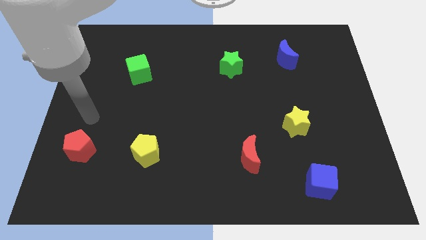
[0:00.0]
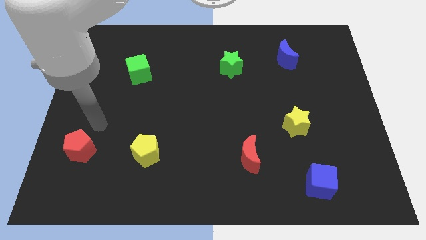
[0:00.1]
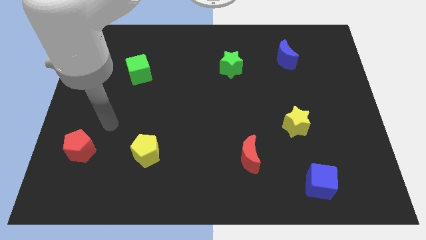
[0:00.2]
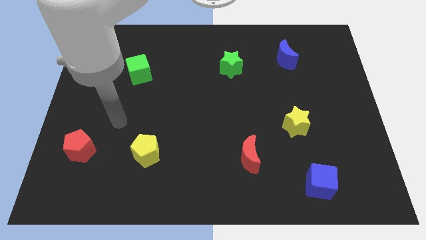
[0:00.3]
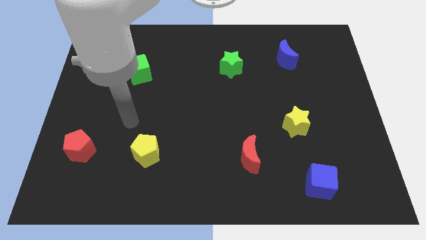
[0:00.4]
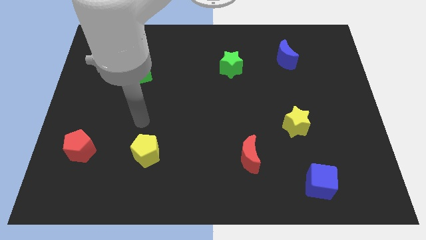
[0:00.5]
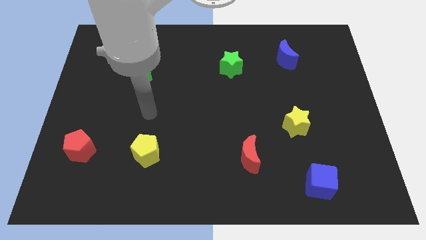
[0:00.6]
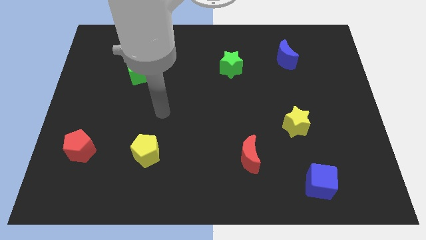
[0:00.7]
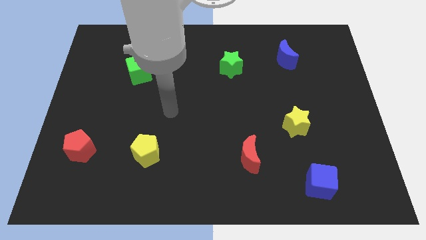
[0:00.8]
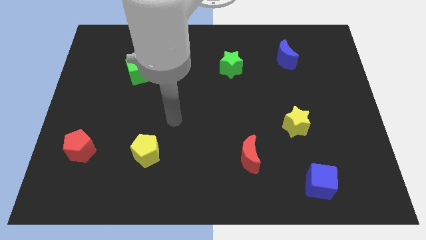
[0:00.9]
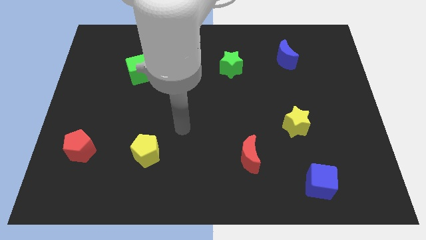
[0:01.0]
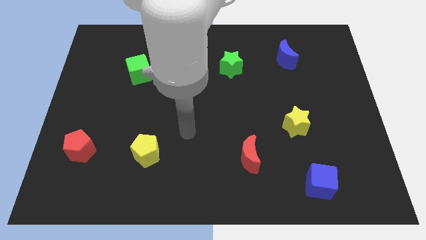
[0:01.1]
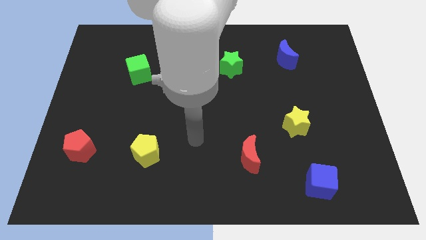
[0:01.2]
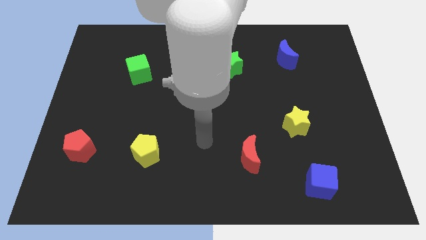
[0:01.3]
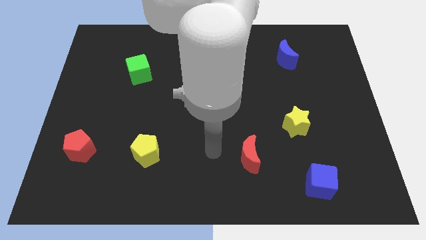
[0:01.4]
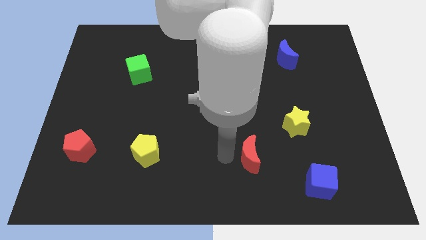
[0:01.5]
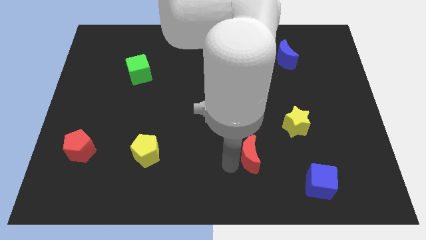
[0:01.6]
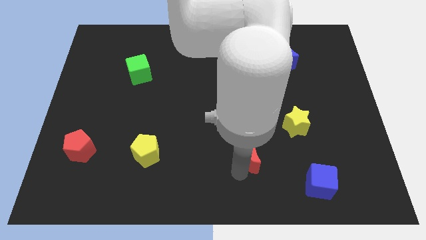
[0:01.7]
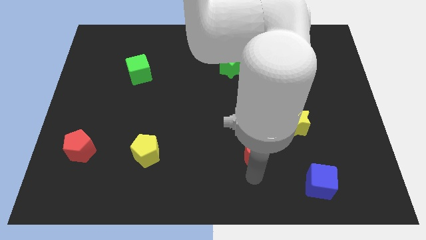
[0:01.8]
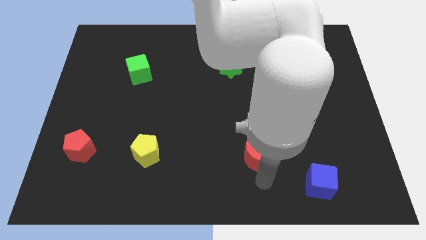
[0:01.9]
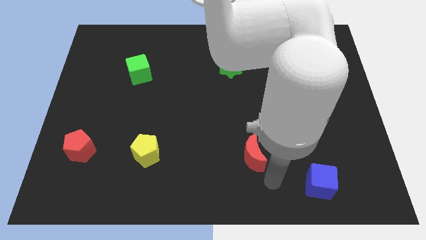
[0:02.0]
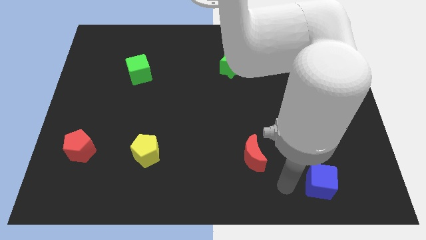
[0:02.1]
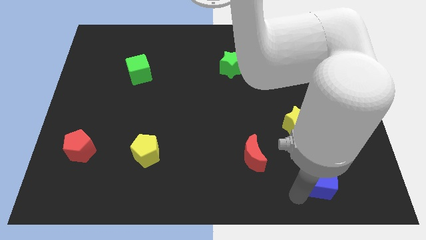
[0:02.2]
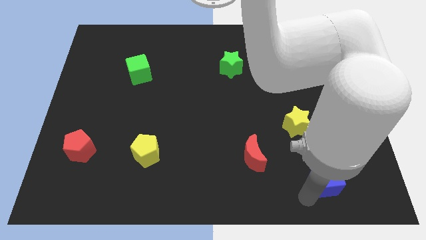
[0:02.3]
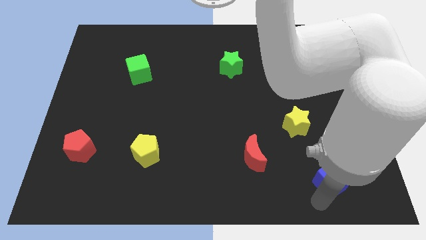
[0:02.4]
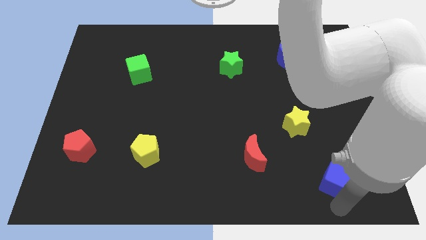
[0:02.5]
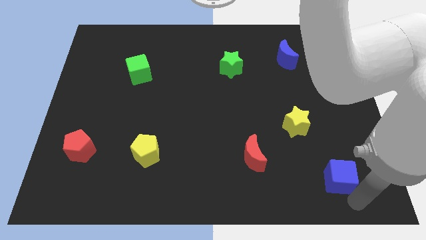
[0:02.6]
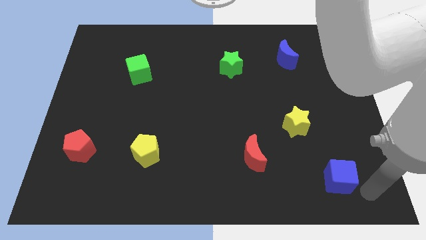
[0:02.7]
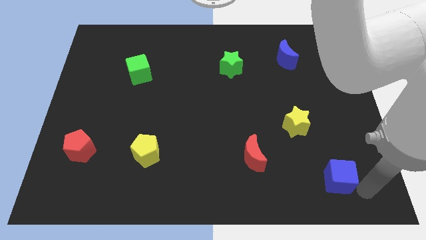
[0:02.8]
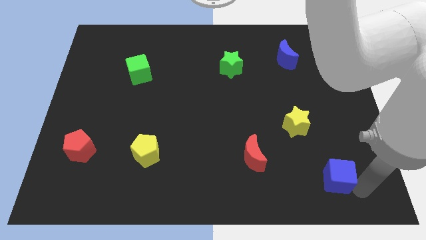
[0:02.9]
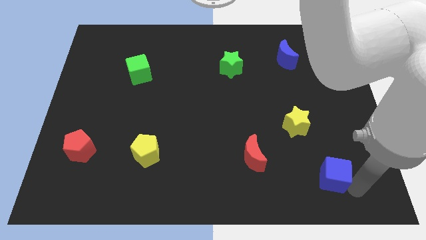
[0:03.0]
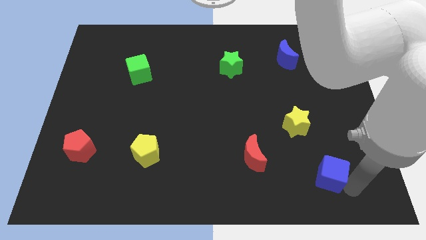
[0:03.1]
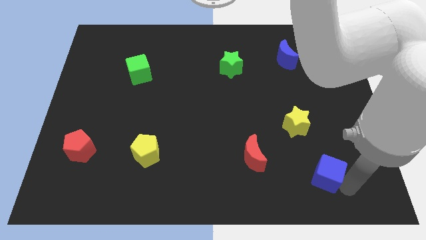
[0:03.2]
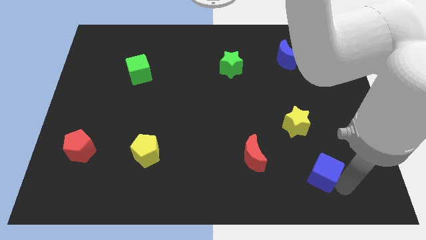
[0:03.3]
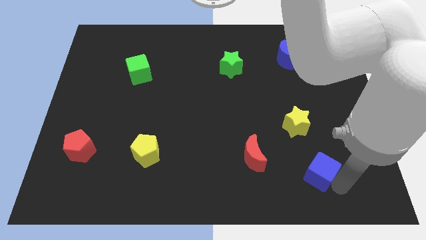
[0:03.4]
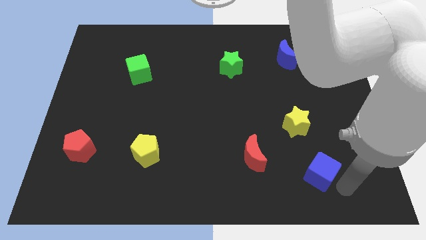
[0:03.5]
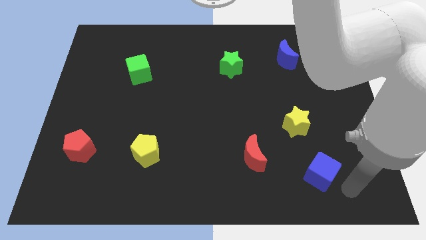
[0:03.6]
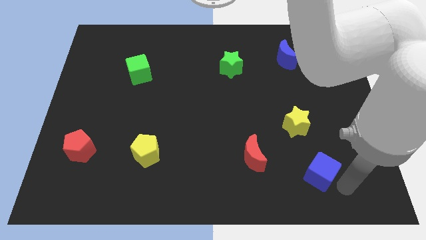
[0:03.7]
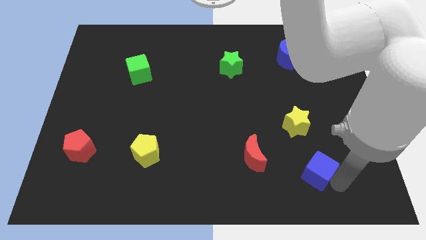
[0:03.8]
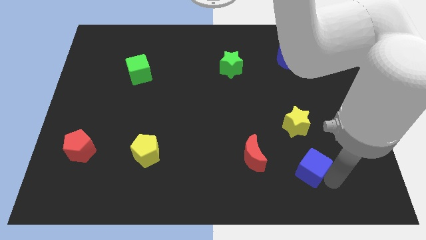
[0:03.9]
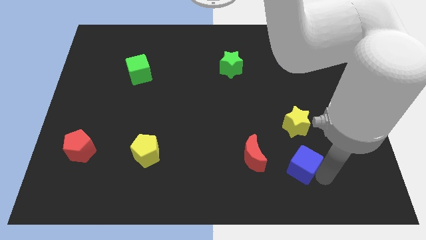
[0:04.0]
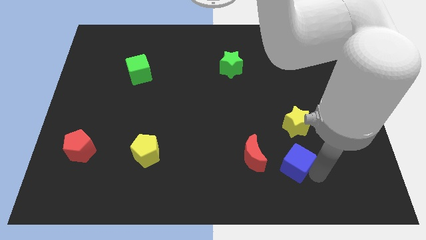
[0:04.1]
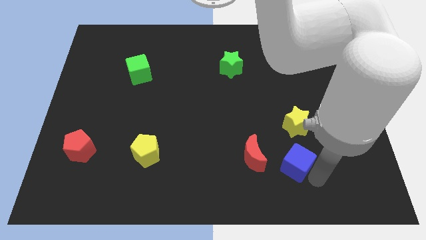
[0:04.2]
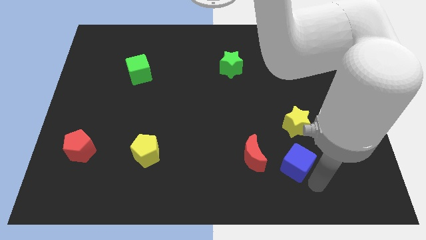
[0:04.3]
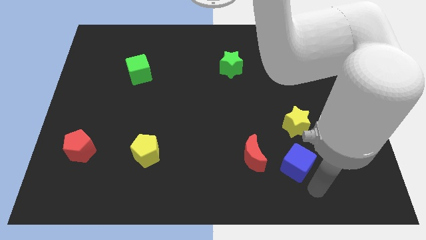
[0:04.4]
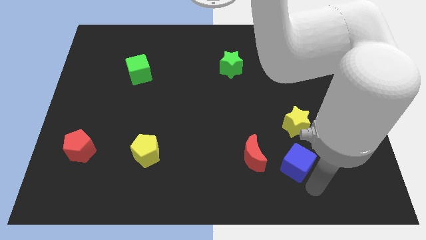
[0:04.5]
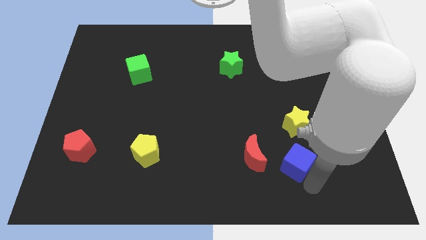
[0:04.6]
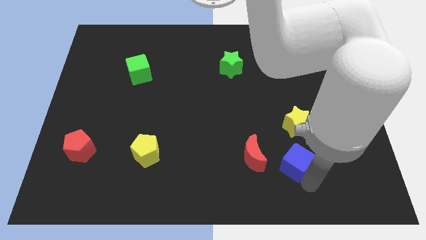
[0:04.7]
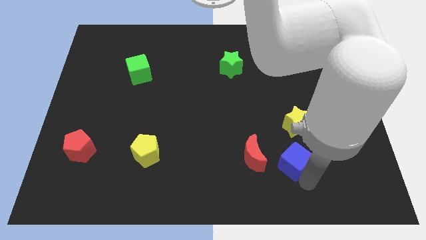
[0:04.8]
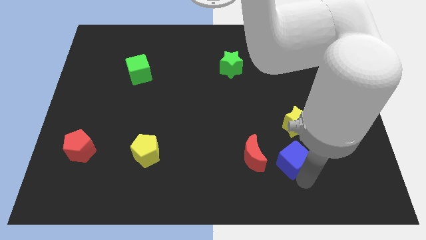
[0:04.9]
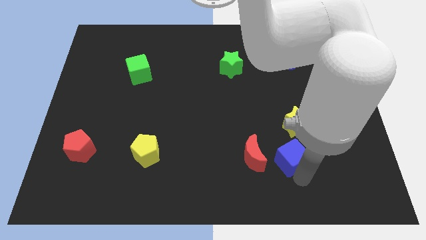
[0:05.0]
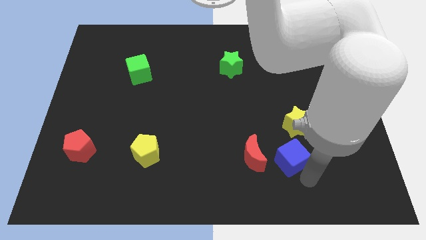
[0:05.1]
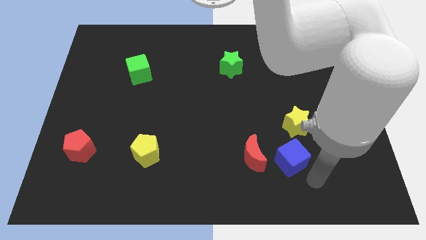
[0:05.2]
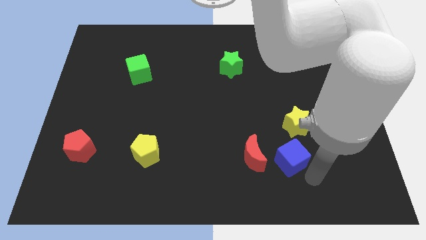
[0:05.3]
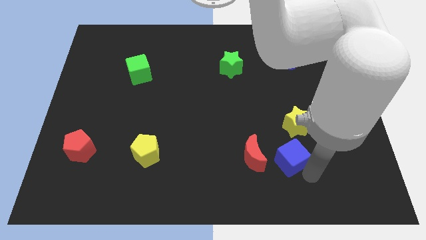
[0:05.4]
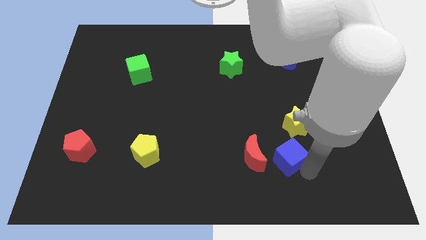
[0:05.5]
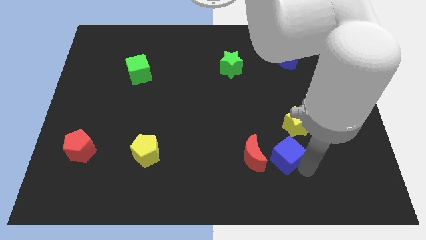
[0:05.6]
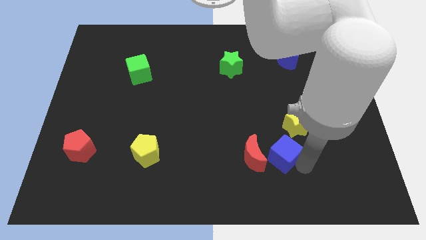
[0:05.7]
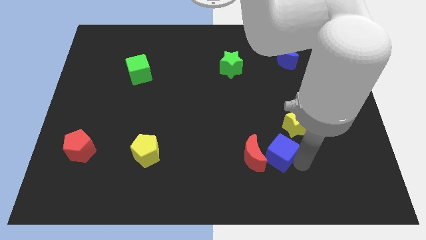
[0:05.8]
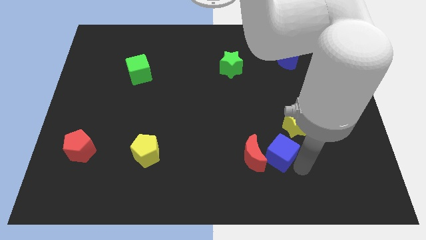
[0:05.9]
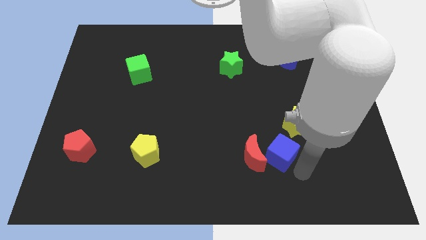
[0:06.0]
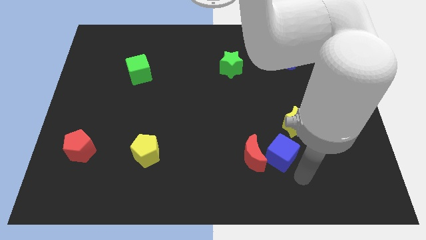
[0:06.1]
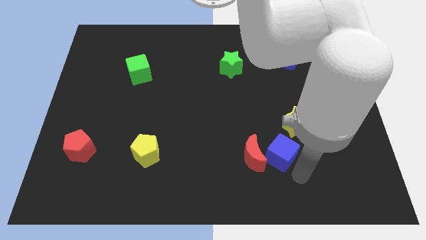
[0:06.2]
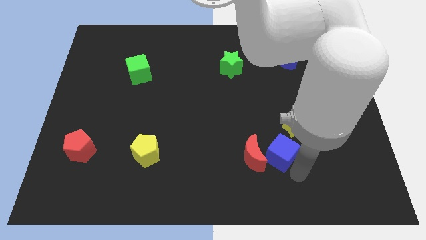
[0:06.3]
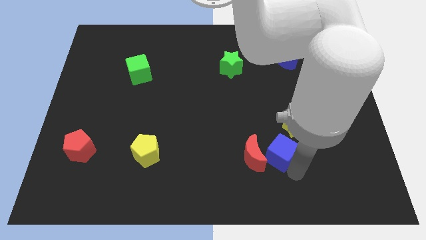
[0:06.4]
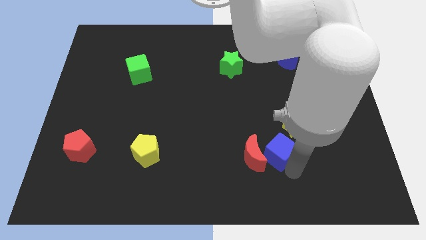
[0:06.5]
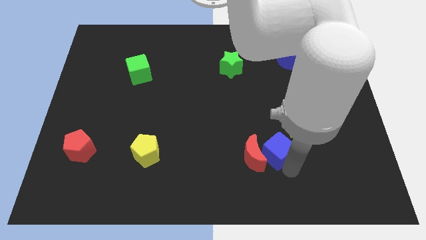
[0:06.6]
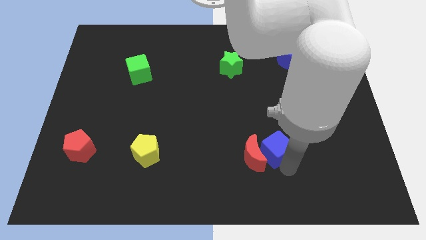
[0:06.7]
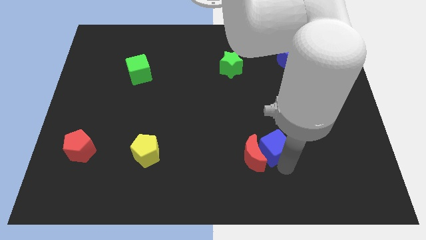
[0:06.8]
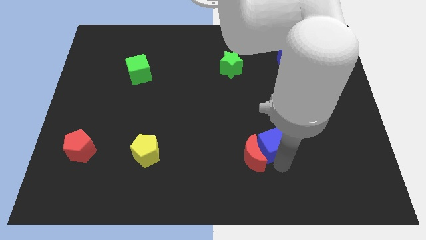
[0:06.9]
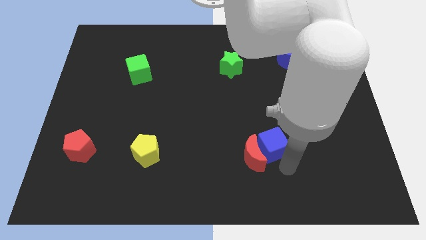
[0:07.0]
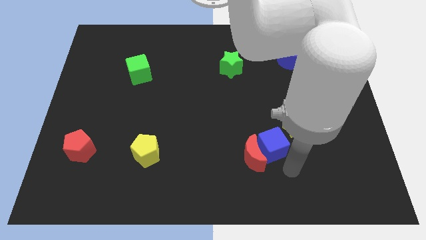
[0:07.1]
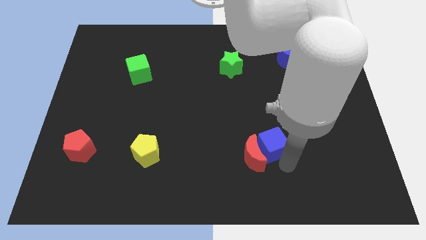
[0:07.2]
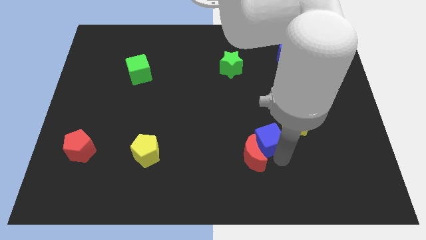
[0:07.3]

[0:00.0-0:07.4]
put the blue cube left of the yellow star
